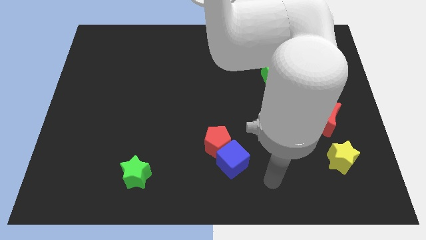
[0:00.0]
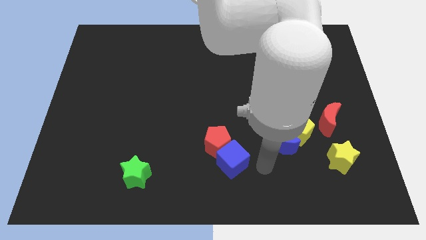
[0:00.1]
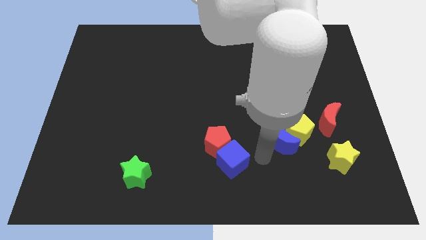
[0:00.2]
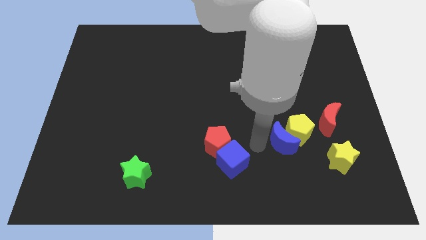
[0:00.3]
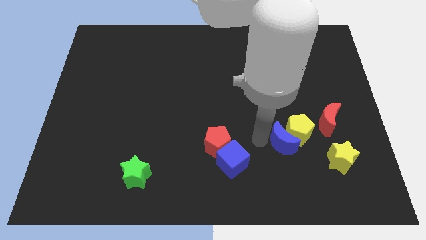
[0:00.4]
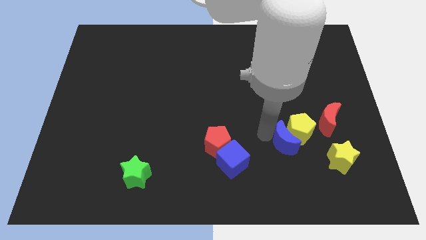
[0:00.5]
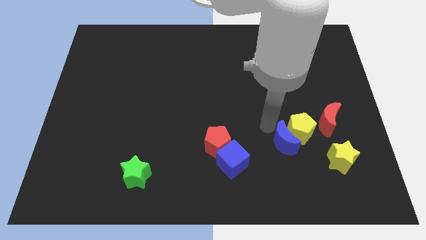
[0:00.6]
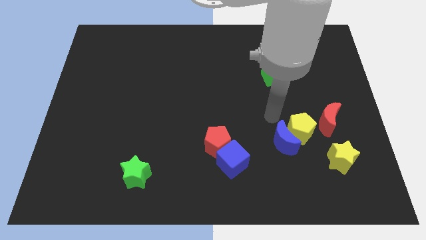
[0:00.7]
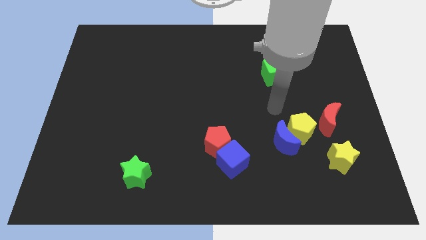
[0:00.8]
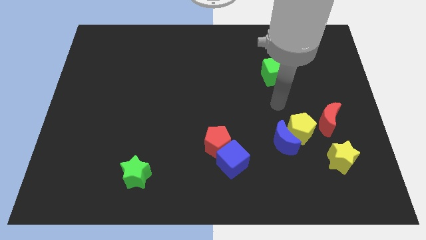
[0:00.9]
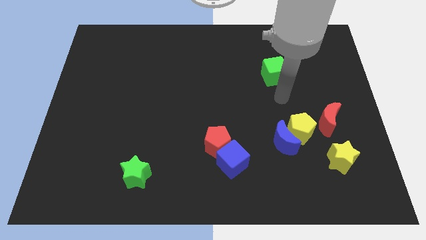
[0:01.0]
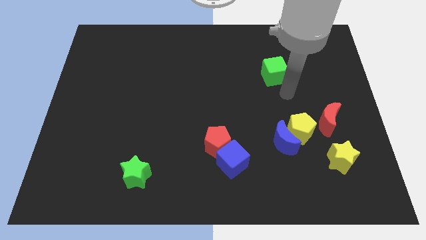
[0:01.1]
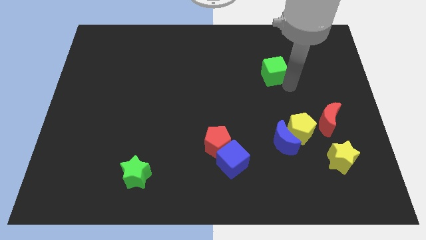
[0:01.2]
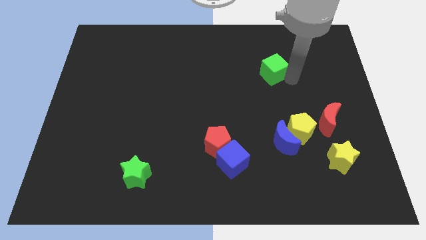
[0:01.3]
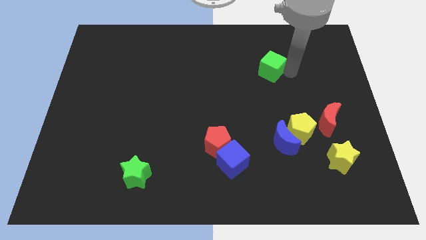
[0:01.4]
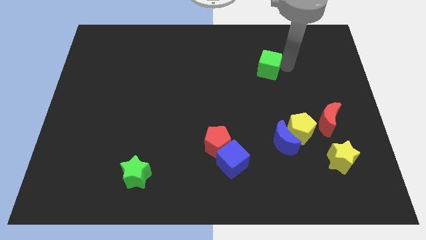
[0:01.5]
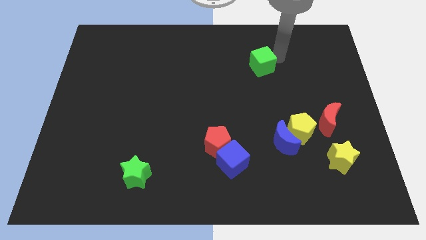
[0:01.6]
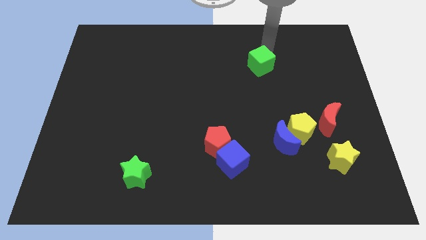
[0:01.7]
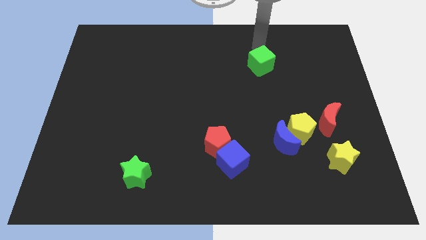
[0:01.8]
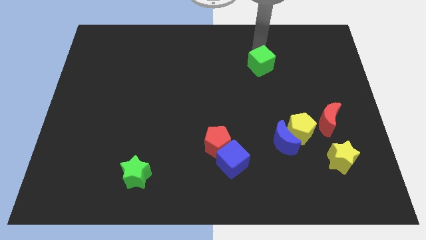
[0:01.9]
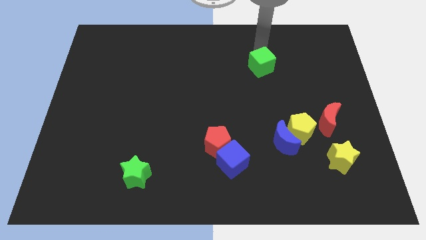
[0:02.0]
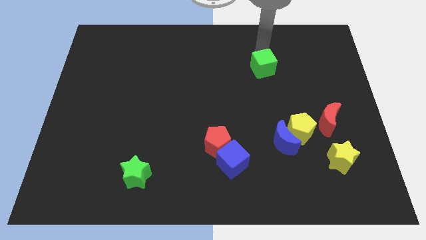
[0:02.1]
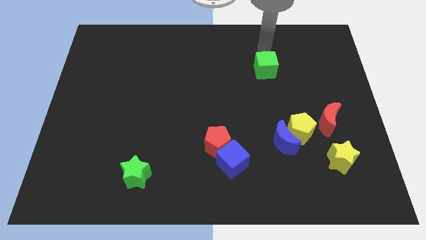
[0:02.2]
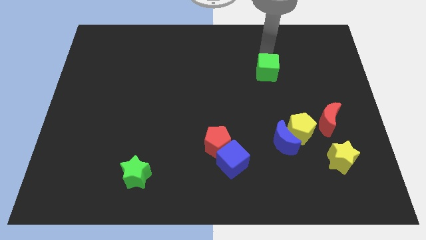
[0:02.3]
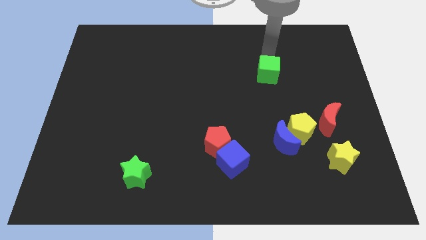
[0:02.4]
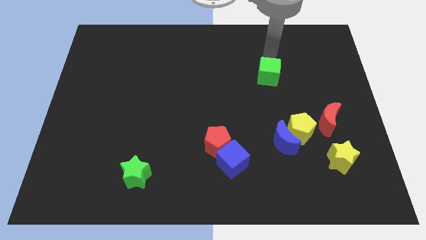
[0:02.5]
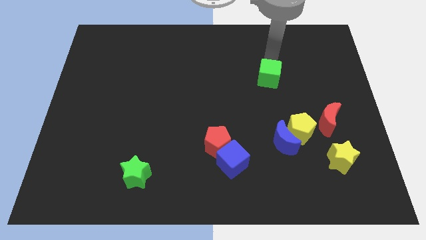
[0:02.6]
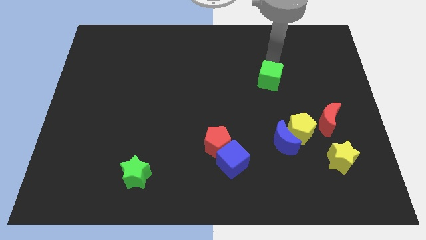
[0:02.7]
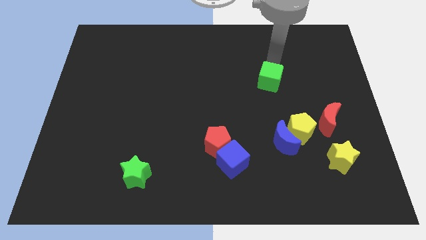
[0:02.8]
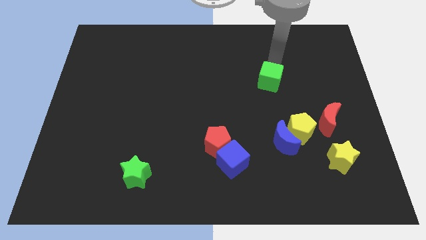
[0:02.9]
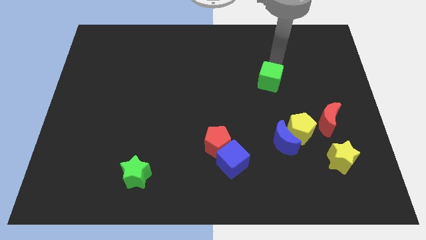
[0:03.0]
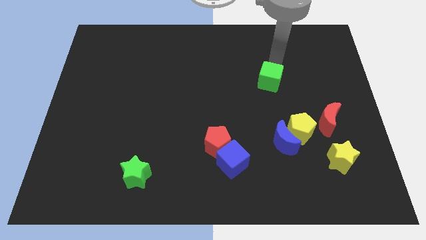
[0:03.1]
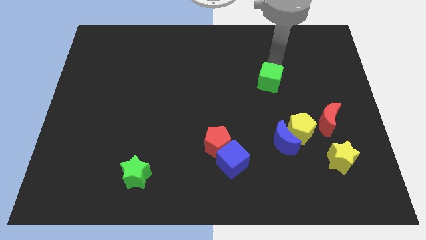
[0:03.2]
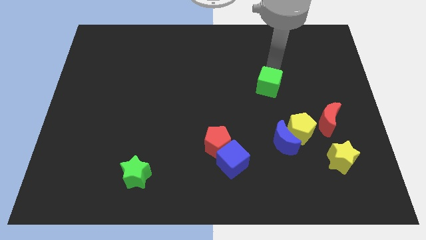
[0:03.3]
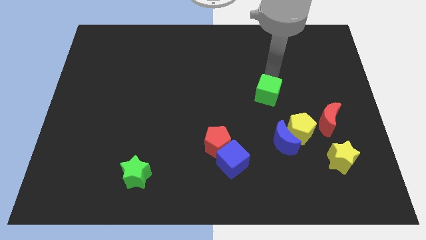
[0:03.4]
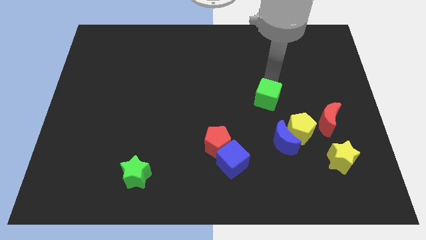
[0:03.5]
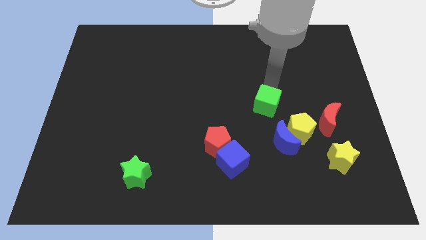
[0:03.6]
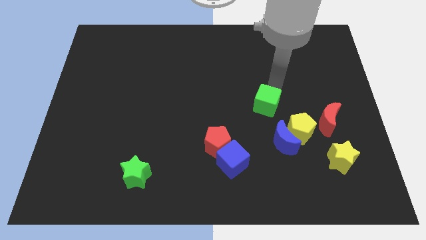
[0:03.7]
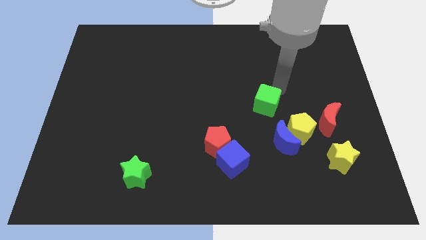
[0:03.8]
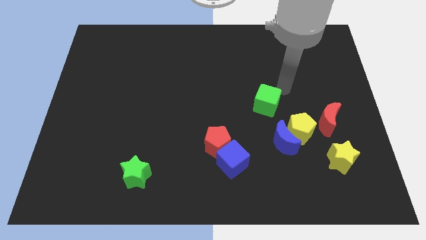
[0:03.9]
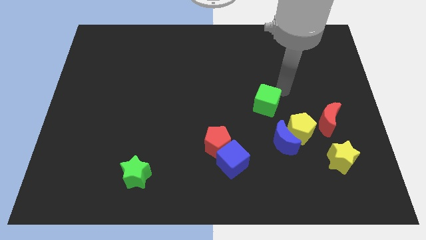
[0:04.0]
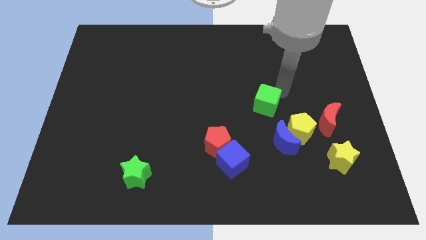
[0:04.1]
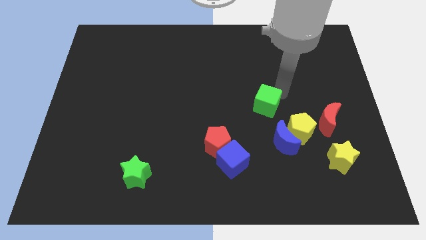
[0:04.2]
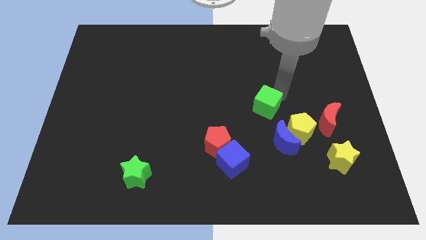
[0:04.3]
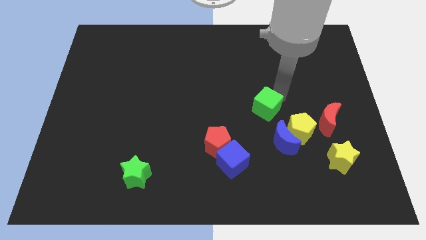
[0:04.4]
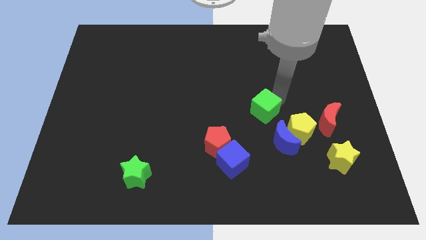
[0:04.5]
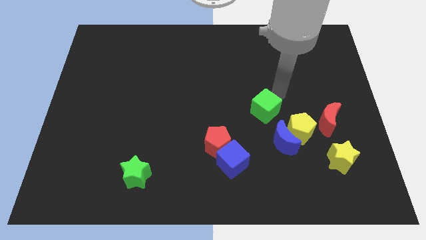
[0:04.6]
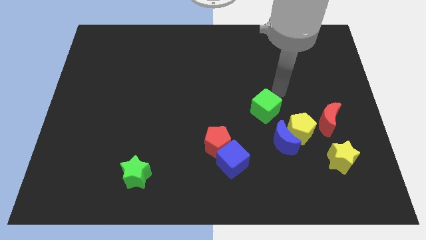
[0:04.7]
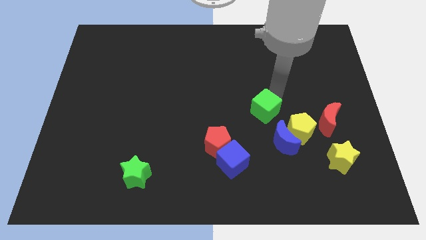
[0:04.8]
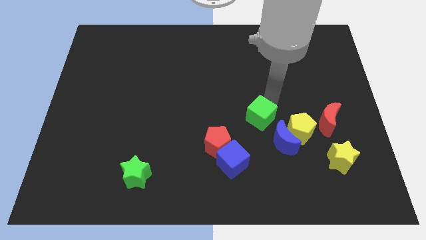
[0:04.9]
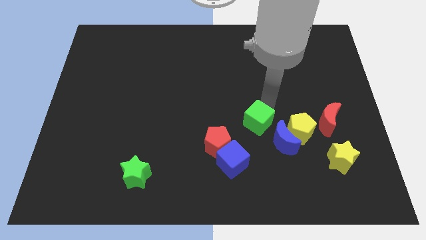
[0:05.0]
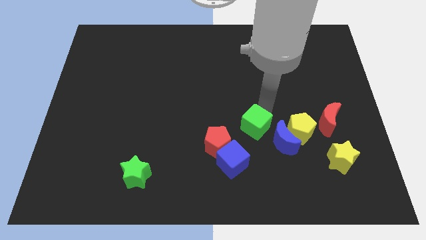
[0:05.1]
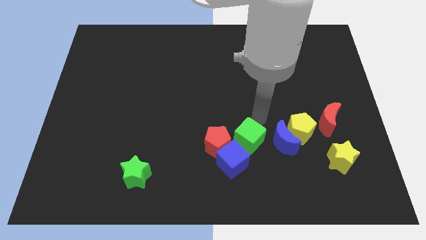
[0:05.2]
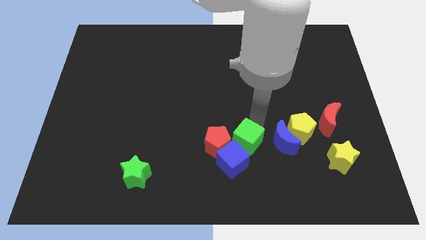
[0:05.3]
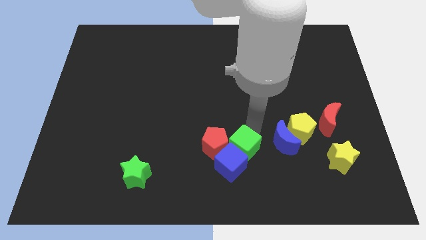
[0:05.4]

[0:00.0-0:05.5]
slide the green cube close to the blue cube

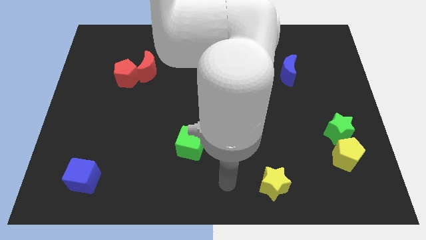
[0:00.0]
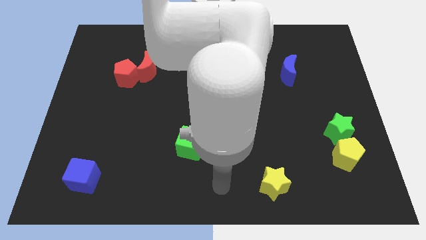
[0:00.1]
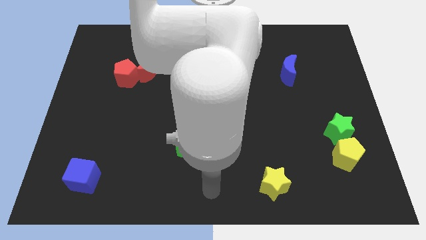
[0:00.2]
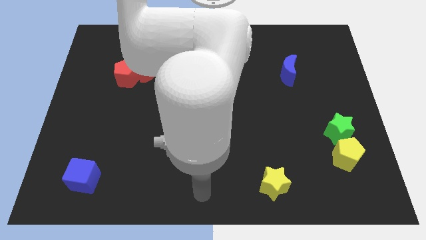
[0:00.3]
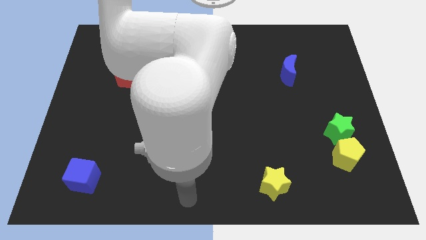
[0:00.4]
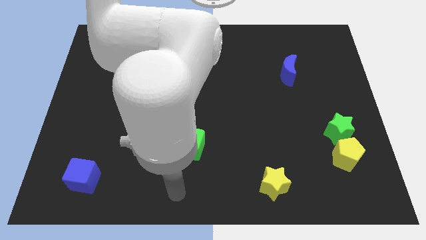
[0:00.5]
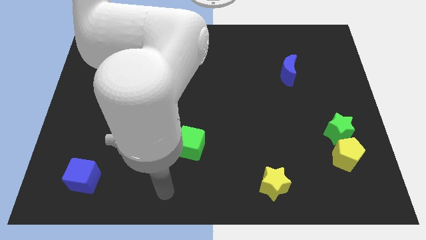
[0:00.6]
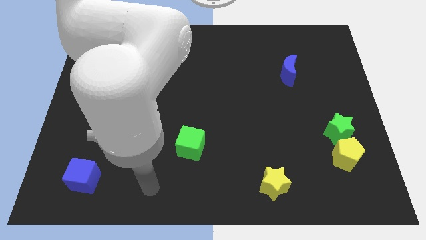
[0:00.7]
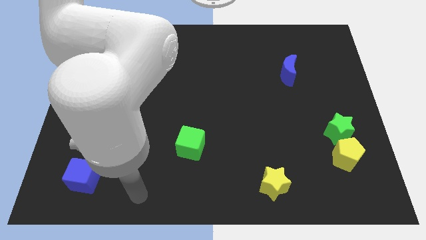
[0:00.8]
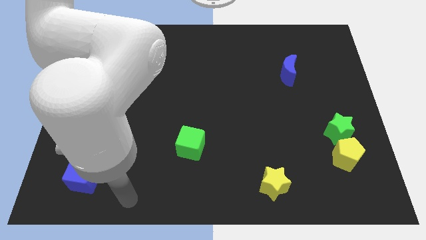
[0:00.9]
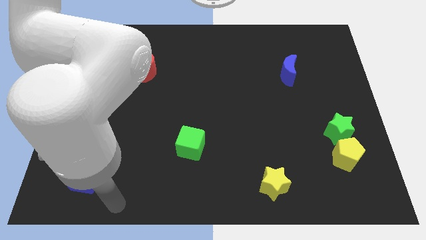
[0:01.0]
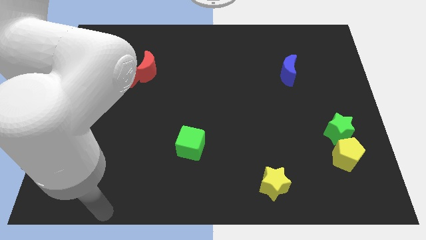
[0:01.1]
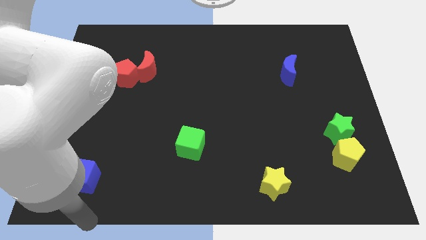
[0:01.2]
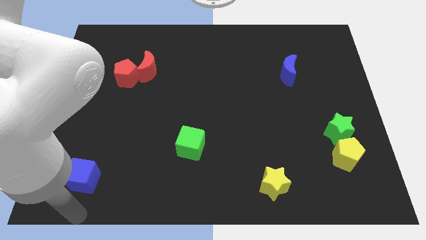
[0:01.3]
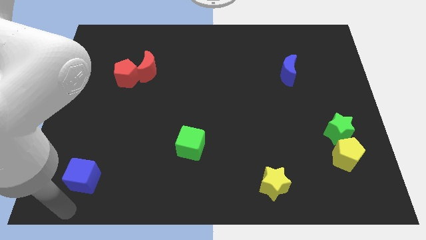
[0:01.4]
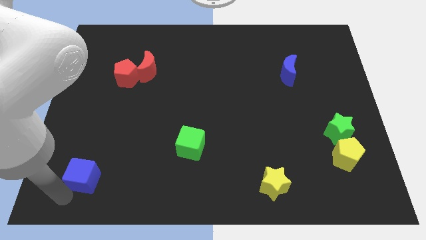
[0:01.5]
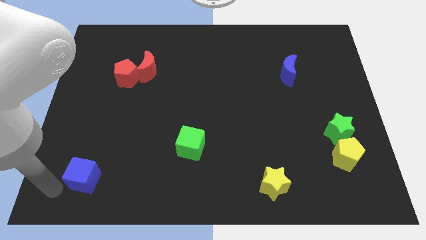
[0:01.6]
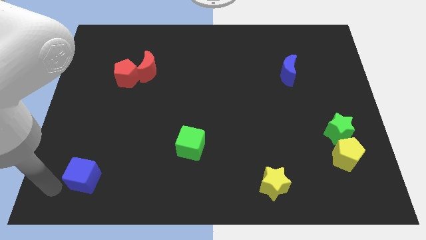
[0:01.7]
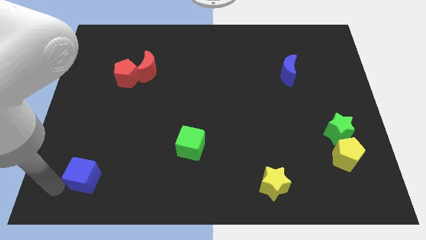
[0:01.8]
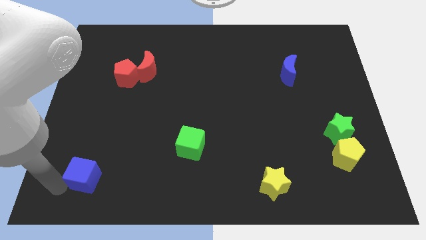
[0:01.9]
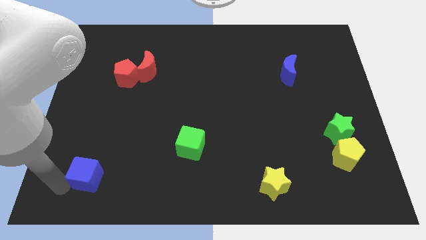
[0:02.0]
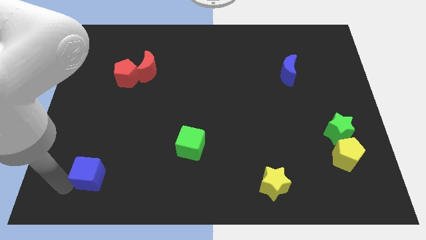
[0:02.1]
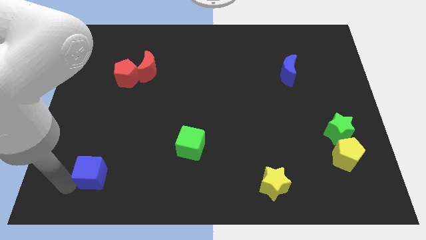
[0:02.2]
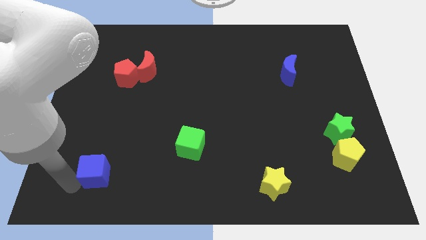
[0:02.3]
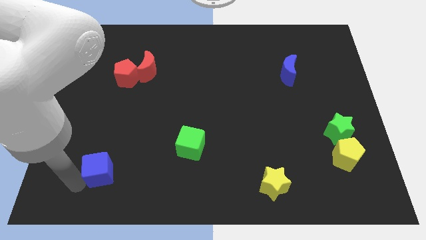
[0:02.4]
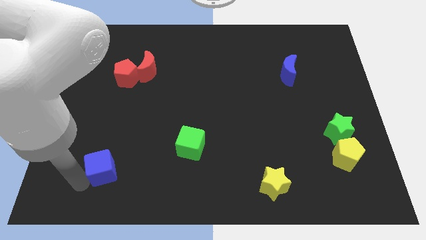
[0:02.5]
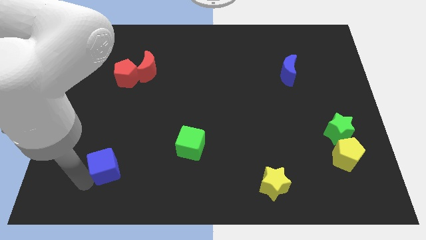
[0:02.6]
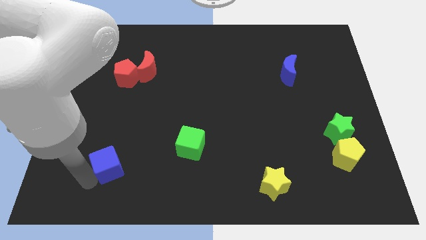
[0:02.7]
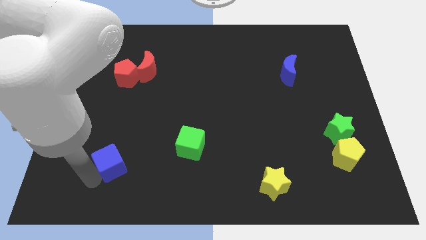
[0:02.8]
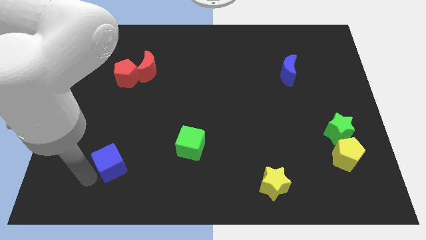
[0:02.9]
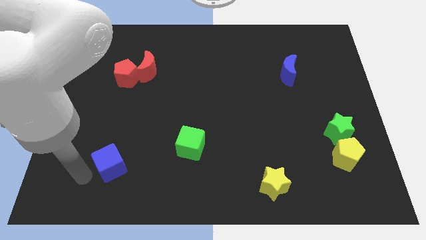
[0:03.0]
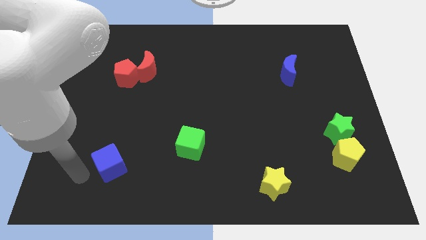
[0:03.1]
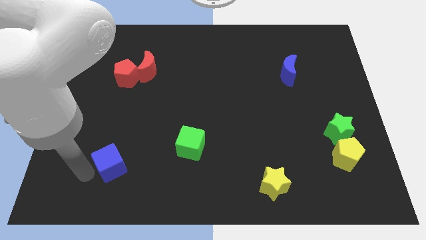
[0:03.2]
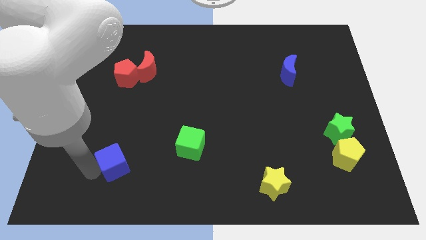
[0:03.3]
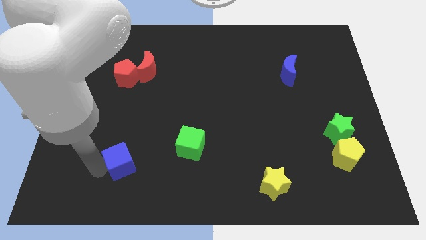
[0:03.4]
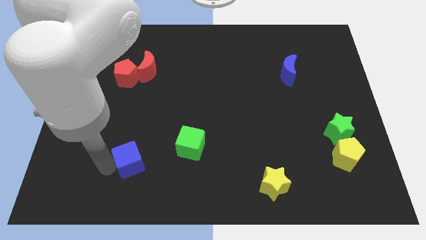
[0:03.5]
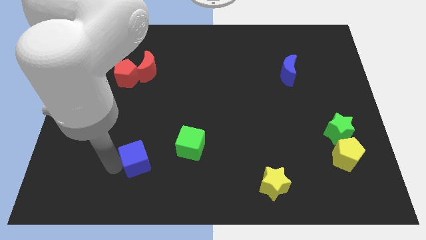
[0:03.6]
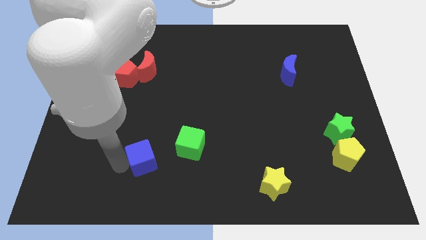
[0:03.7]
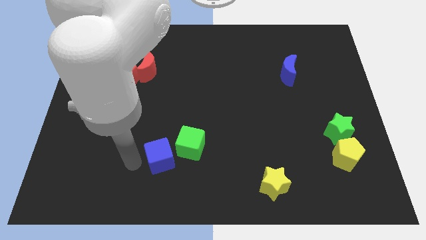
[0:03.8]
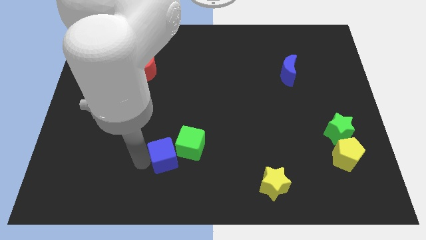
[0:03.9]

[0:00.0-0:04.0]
slide the blue cube towards the green cube
